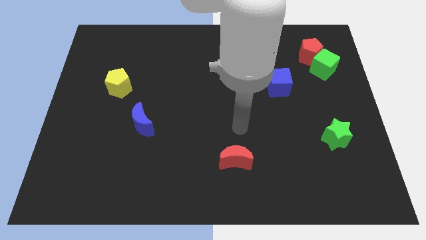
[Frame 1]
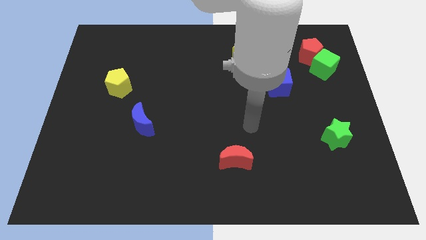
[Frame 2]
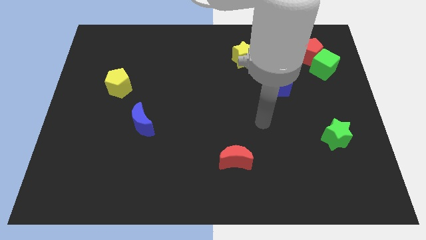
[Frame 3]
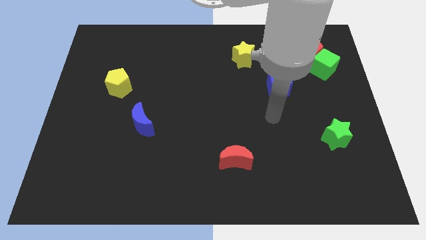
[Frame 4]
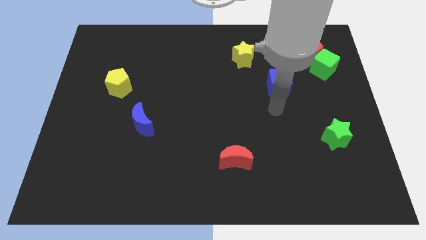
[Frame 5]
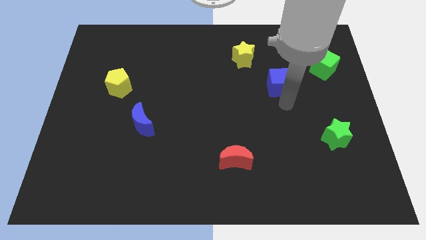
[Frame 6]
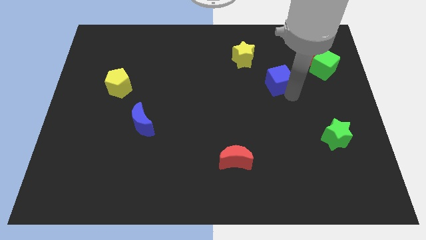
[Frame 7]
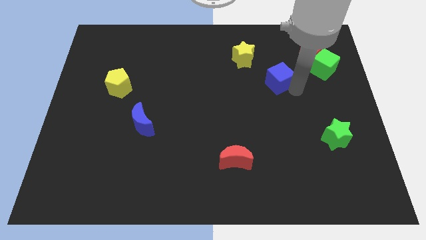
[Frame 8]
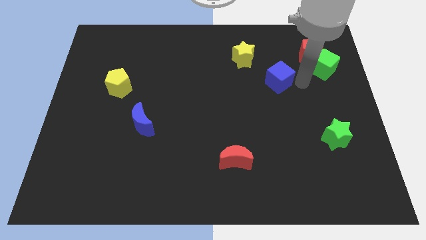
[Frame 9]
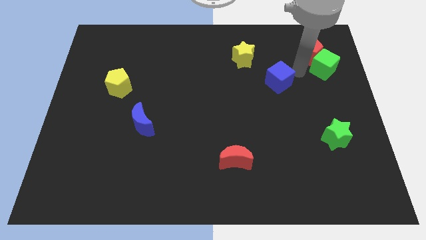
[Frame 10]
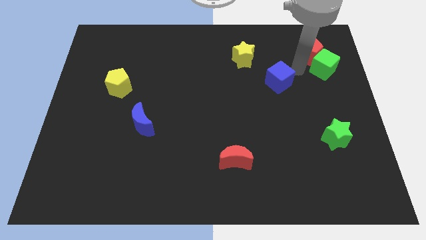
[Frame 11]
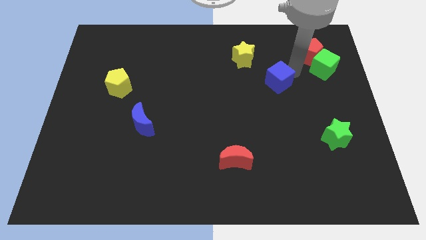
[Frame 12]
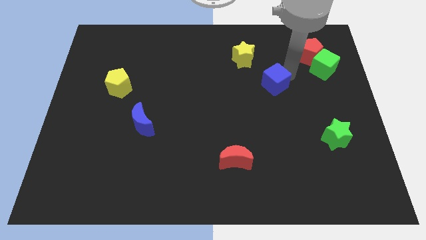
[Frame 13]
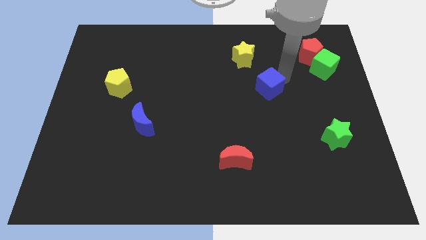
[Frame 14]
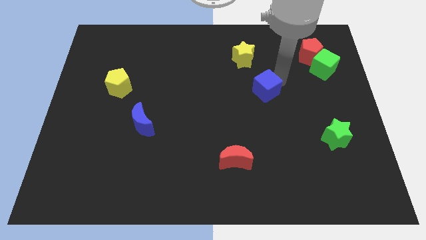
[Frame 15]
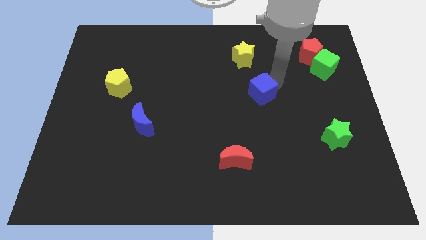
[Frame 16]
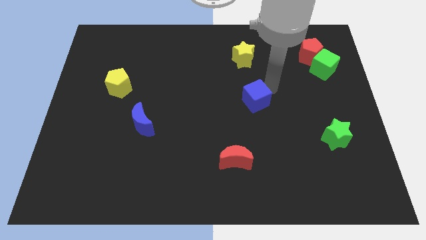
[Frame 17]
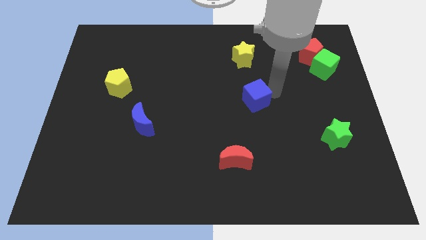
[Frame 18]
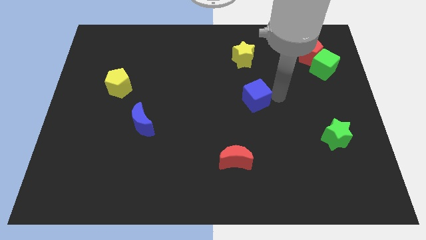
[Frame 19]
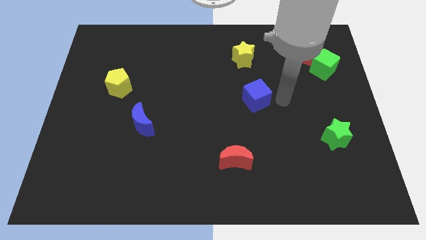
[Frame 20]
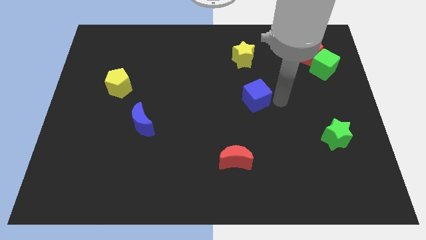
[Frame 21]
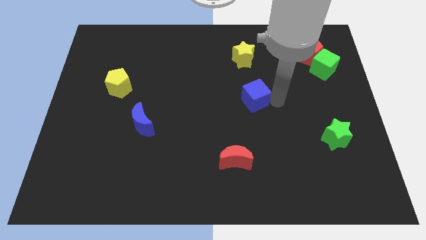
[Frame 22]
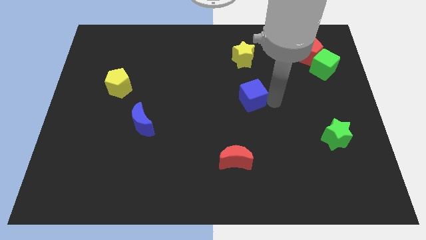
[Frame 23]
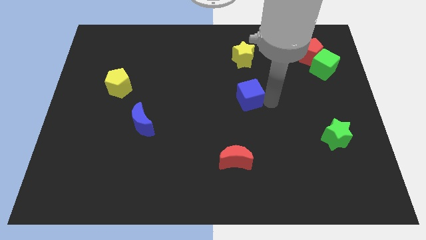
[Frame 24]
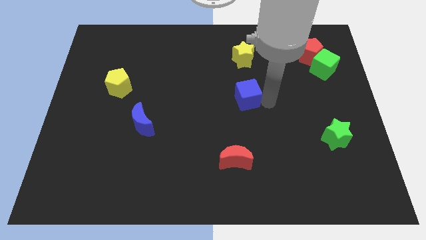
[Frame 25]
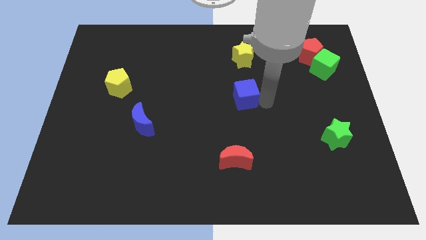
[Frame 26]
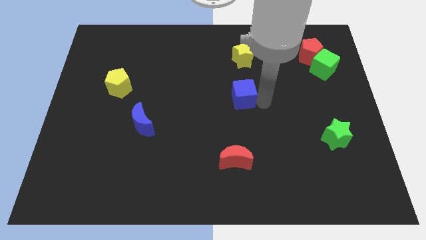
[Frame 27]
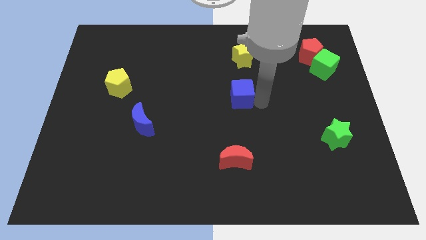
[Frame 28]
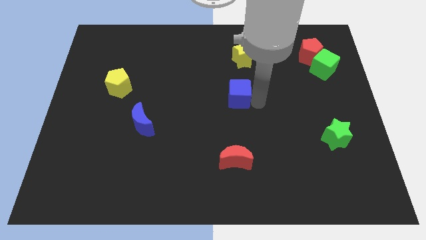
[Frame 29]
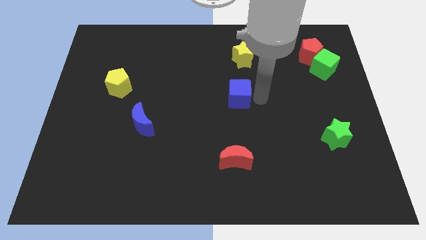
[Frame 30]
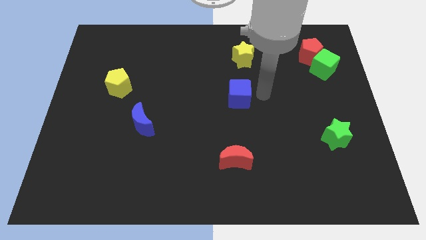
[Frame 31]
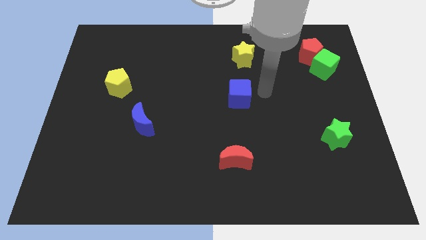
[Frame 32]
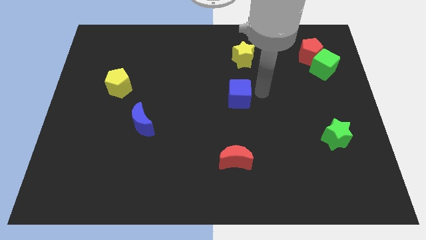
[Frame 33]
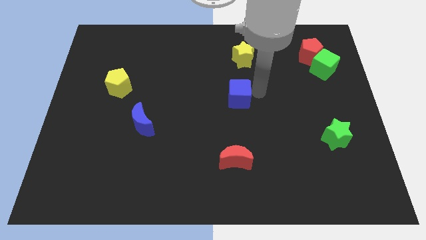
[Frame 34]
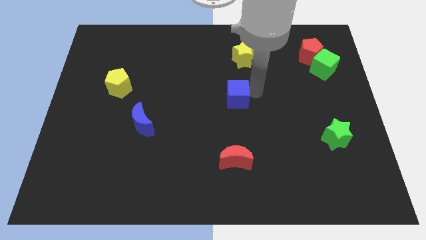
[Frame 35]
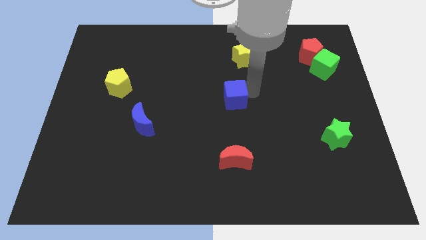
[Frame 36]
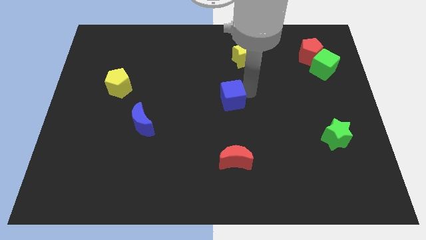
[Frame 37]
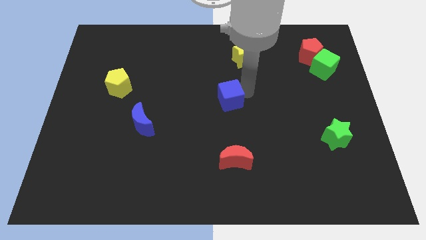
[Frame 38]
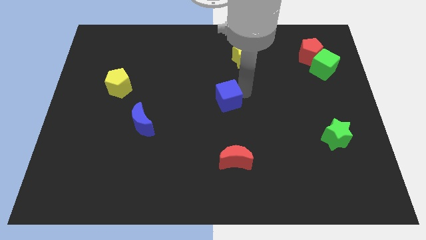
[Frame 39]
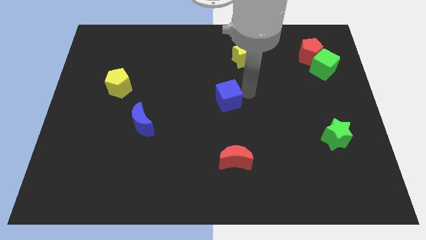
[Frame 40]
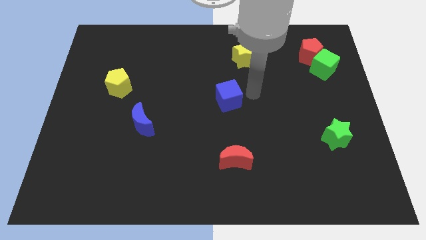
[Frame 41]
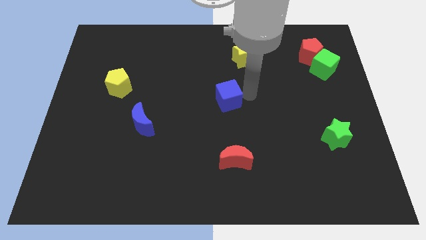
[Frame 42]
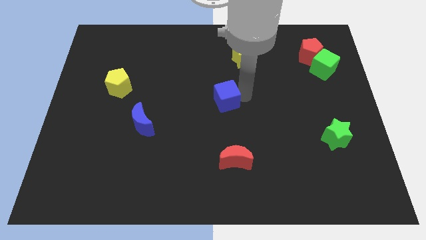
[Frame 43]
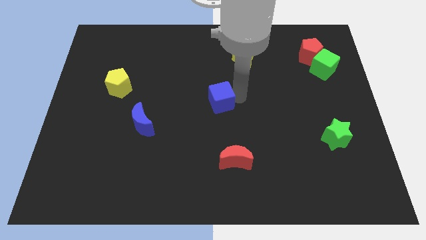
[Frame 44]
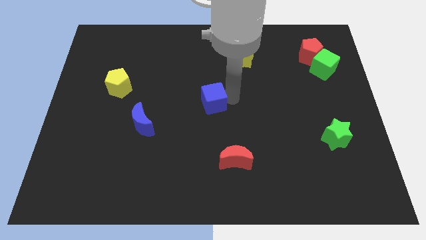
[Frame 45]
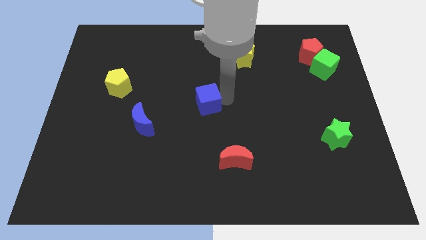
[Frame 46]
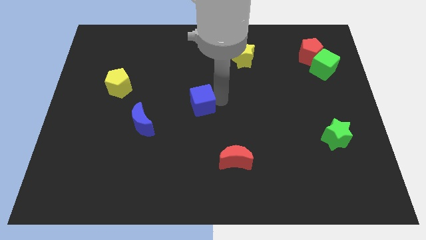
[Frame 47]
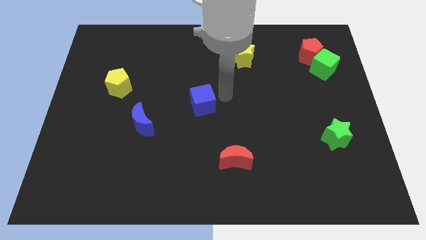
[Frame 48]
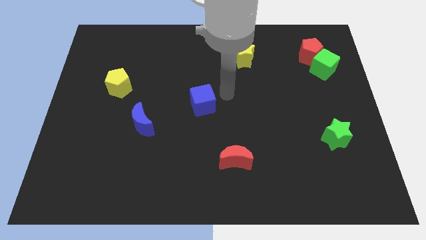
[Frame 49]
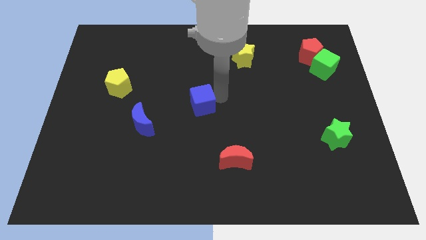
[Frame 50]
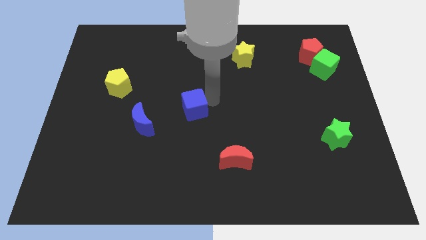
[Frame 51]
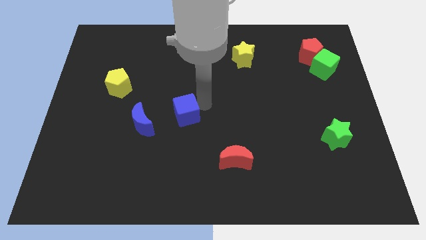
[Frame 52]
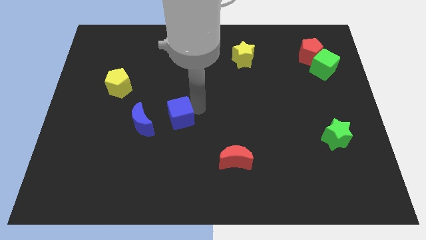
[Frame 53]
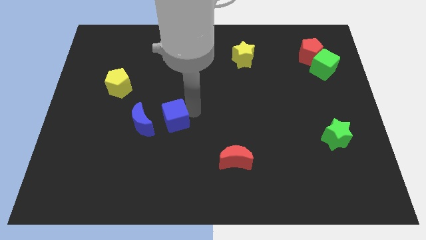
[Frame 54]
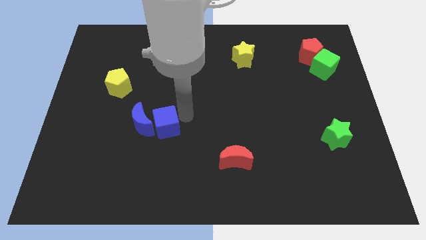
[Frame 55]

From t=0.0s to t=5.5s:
put the blue cube close to the blue moon
